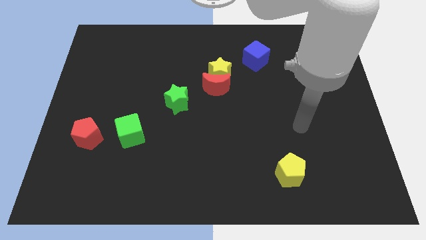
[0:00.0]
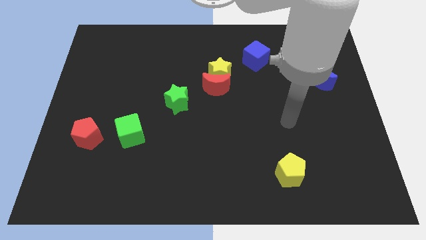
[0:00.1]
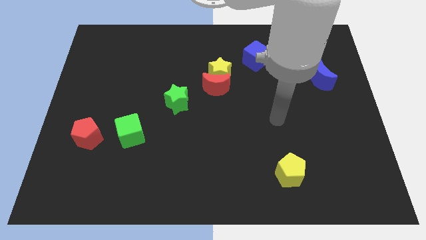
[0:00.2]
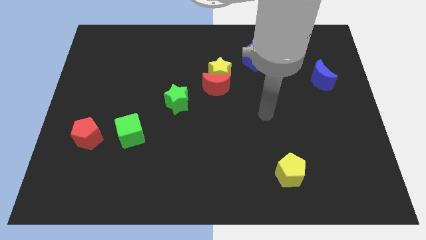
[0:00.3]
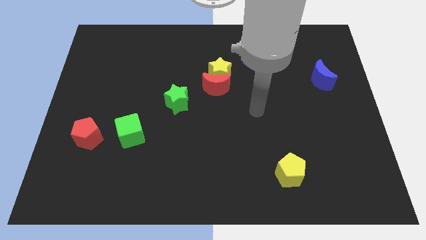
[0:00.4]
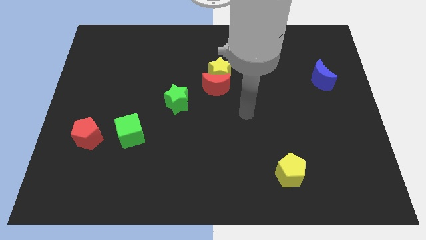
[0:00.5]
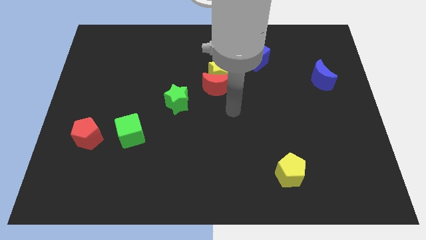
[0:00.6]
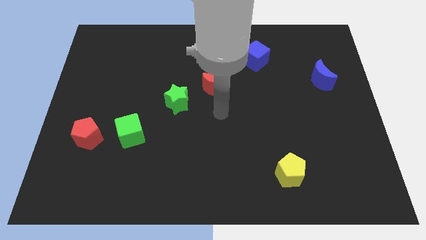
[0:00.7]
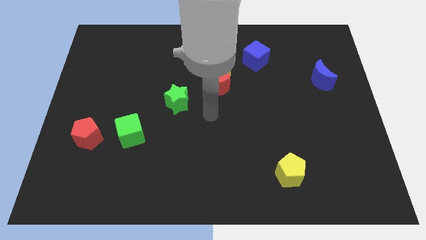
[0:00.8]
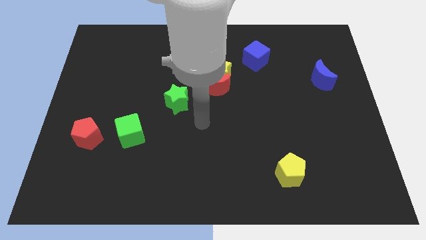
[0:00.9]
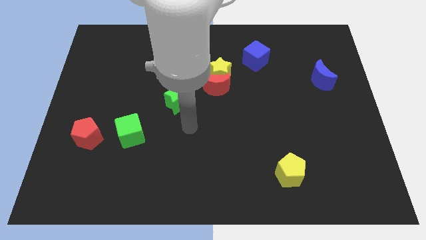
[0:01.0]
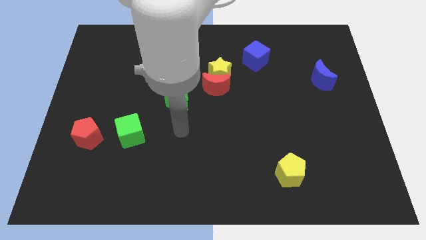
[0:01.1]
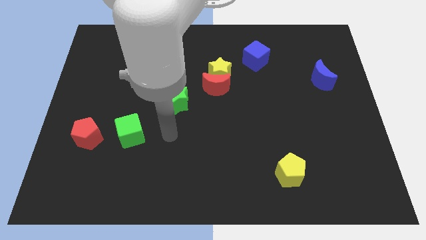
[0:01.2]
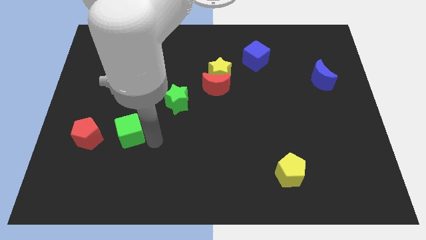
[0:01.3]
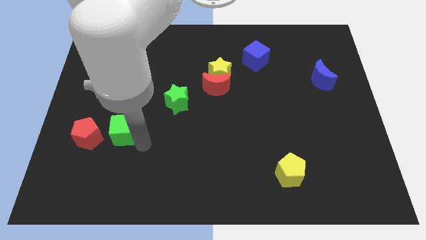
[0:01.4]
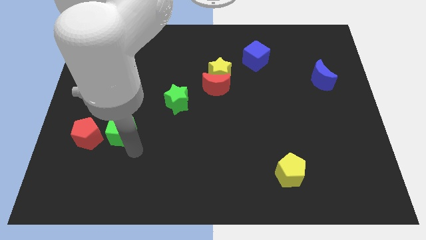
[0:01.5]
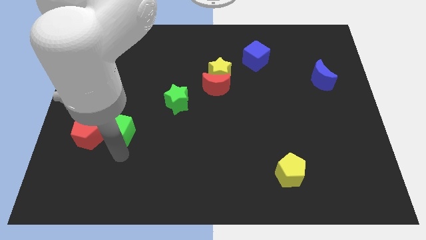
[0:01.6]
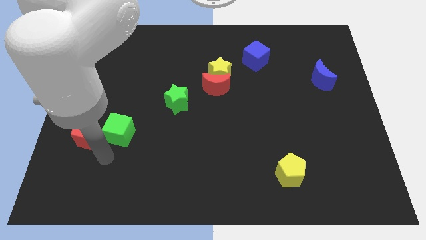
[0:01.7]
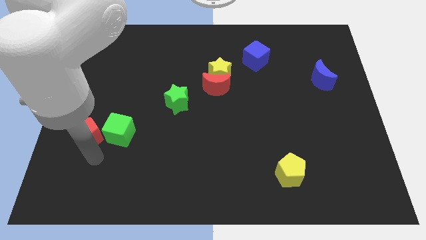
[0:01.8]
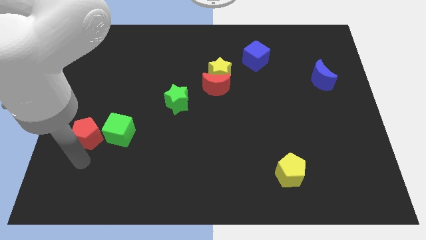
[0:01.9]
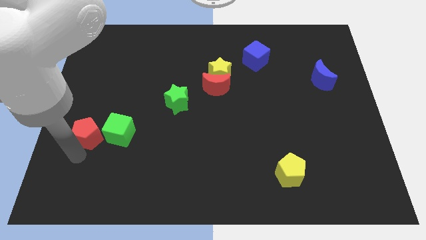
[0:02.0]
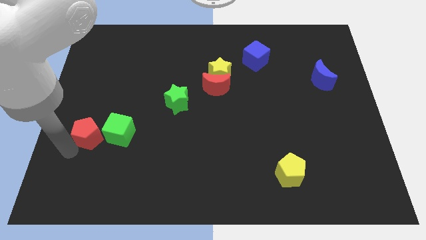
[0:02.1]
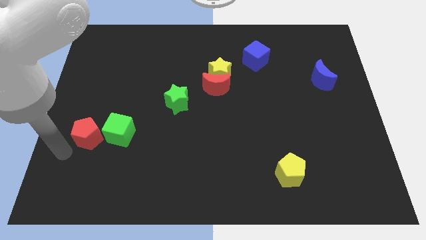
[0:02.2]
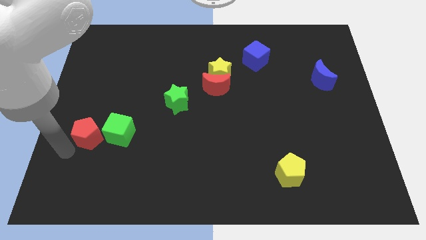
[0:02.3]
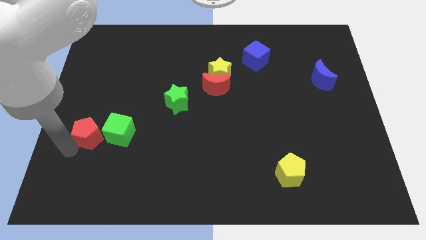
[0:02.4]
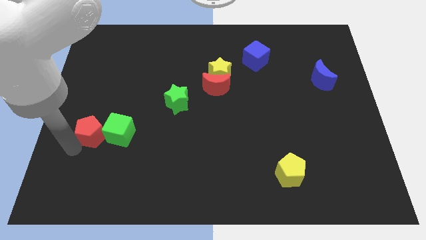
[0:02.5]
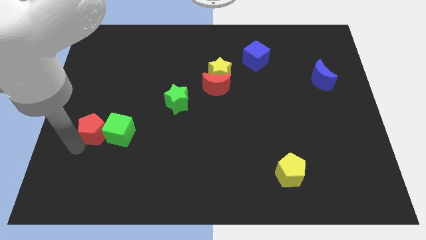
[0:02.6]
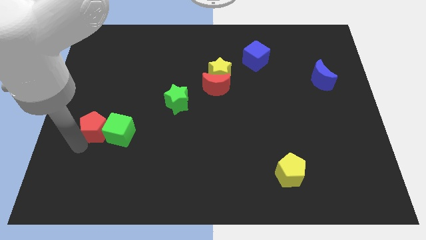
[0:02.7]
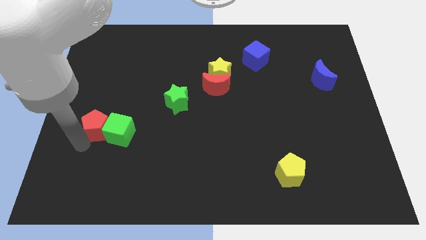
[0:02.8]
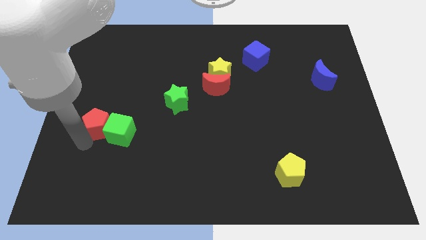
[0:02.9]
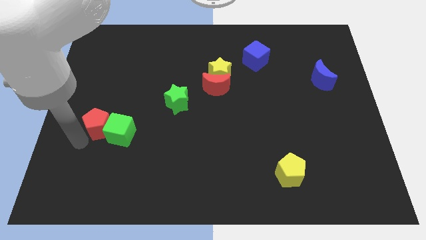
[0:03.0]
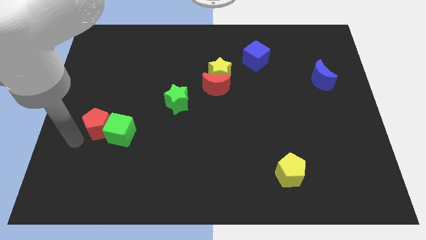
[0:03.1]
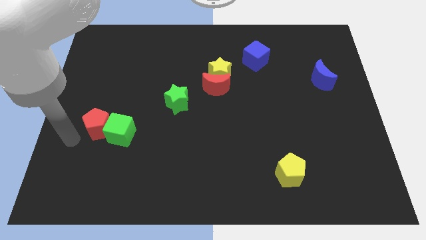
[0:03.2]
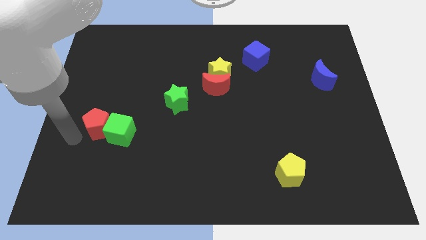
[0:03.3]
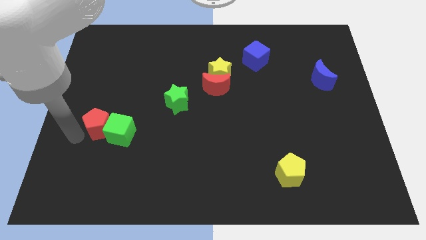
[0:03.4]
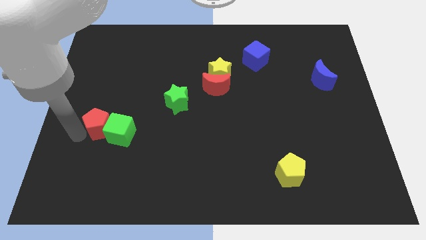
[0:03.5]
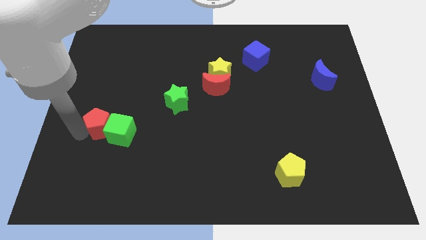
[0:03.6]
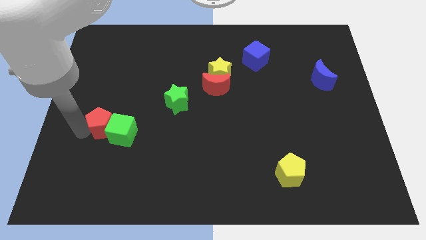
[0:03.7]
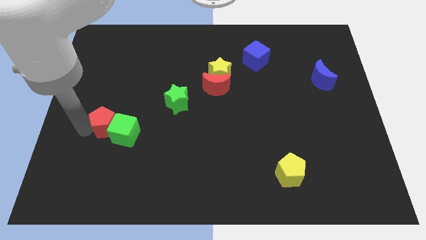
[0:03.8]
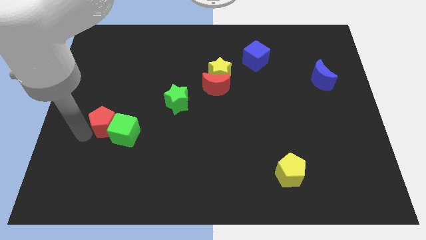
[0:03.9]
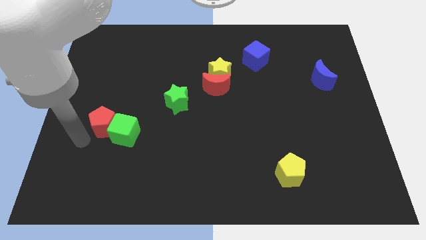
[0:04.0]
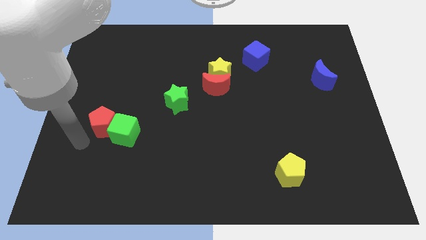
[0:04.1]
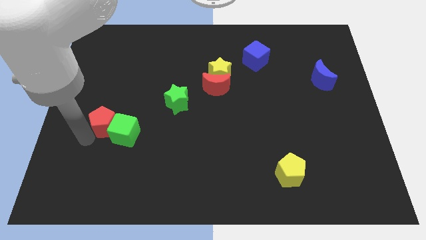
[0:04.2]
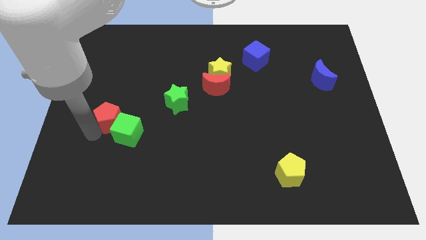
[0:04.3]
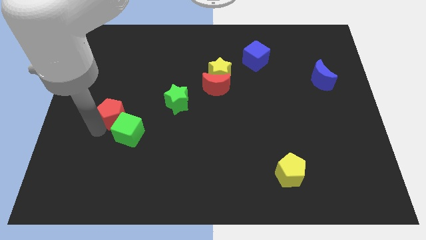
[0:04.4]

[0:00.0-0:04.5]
push the red pentagon up and then to the right a little

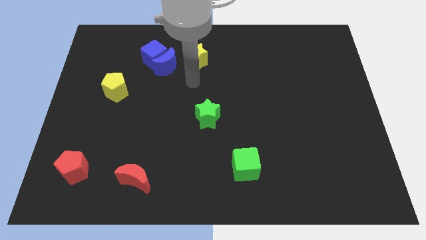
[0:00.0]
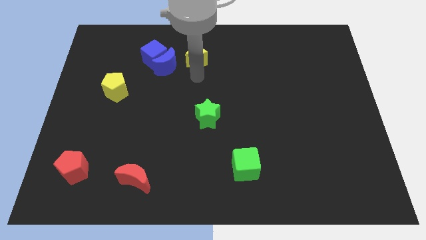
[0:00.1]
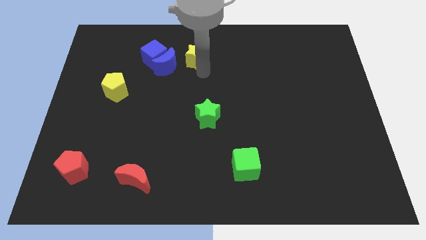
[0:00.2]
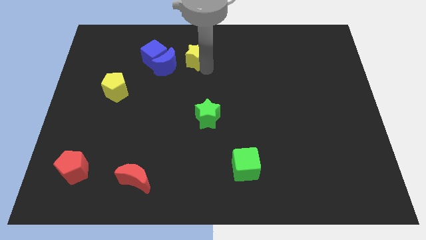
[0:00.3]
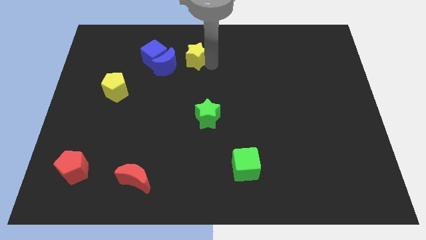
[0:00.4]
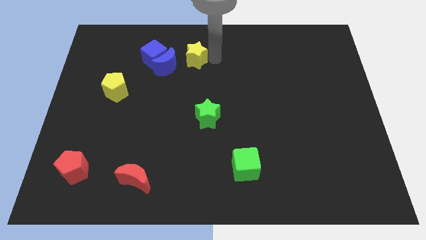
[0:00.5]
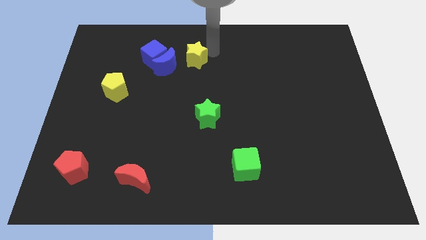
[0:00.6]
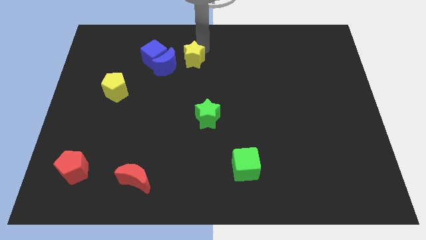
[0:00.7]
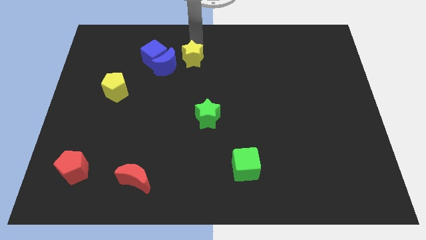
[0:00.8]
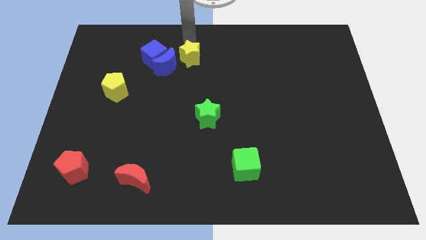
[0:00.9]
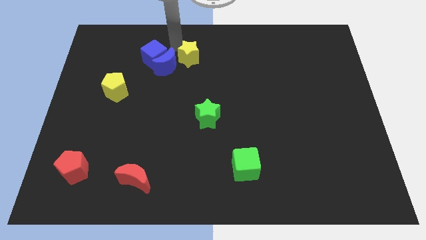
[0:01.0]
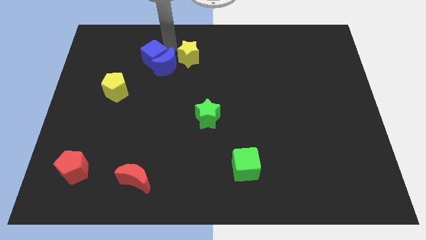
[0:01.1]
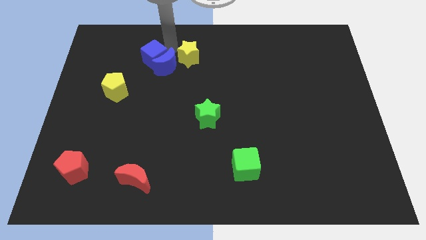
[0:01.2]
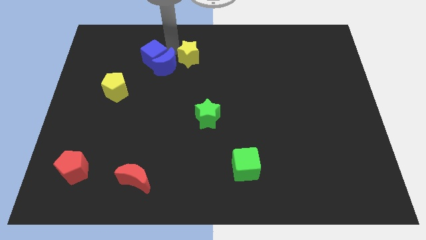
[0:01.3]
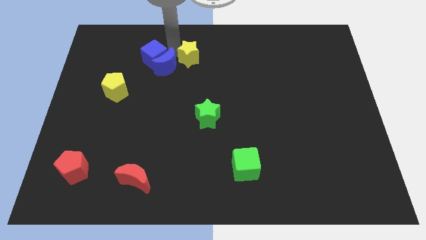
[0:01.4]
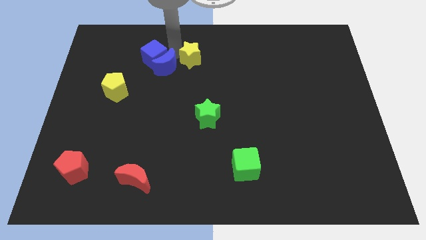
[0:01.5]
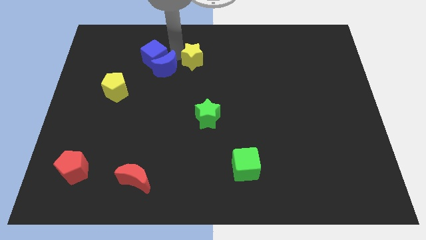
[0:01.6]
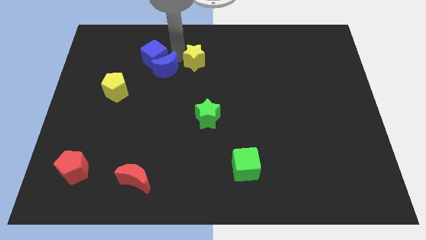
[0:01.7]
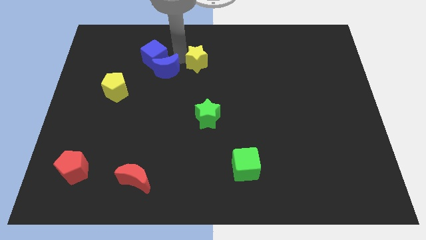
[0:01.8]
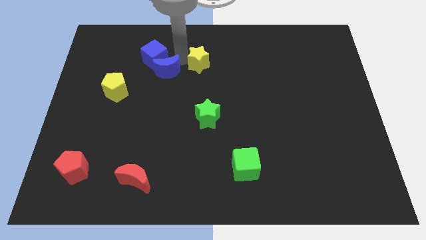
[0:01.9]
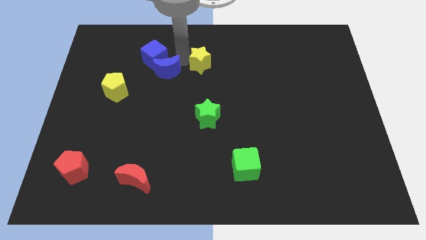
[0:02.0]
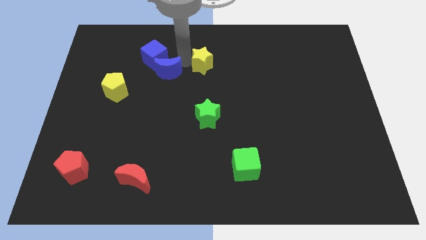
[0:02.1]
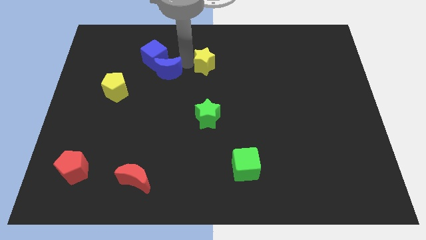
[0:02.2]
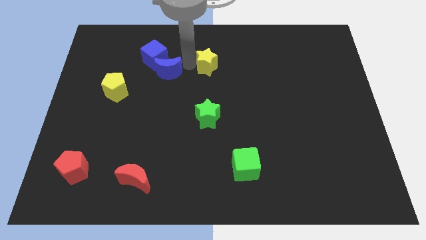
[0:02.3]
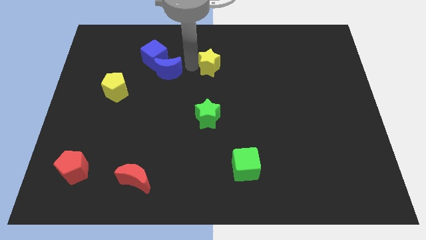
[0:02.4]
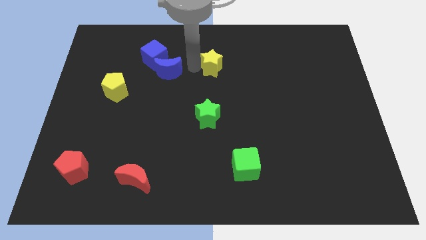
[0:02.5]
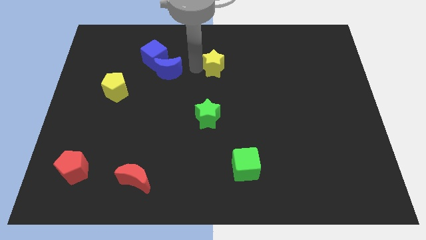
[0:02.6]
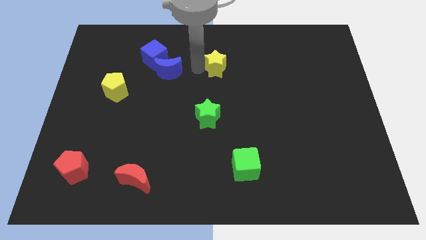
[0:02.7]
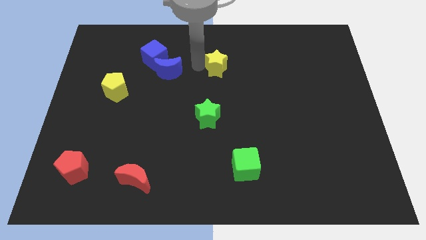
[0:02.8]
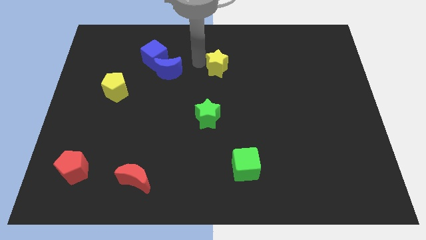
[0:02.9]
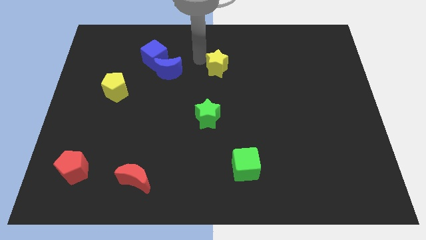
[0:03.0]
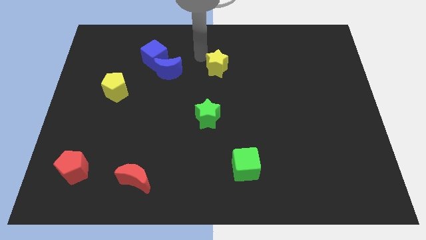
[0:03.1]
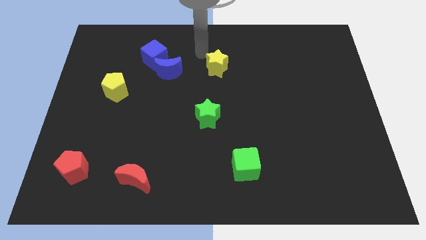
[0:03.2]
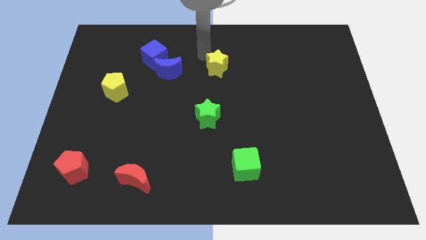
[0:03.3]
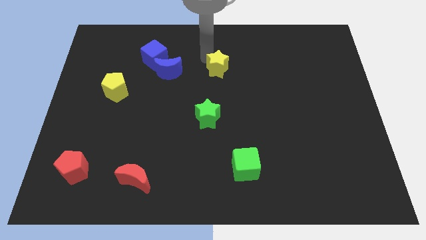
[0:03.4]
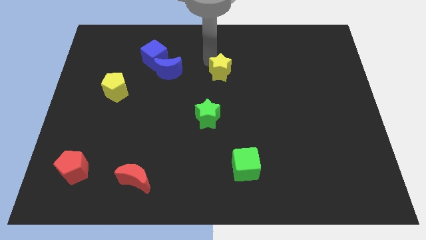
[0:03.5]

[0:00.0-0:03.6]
move the yellow star downwards and to the right slightly

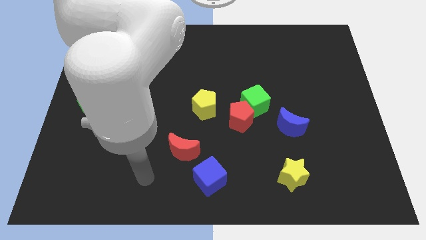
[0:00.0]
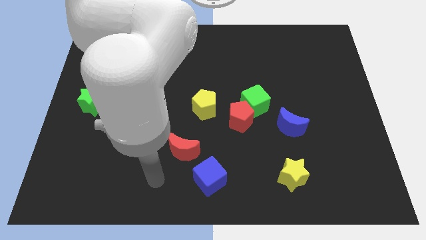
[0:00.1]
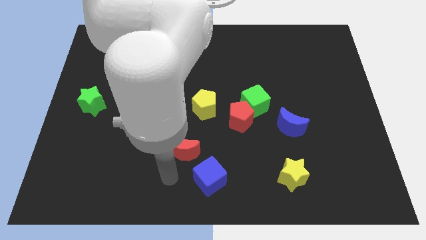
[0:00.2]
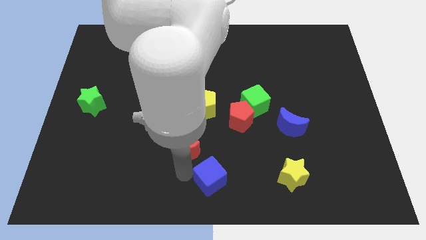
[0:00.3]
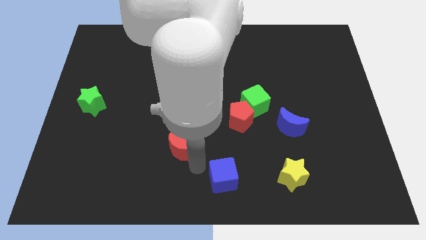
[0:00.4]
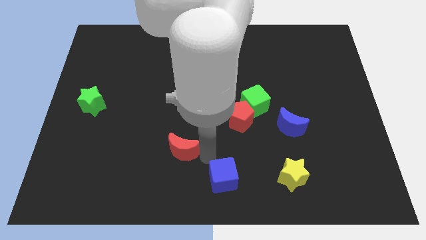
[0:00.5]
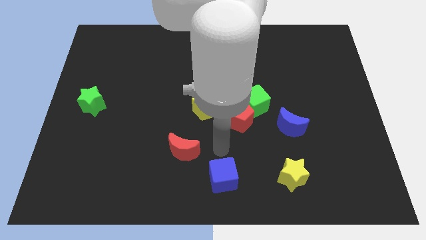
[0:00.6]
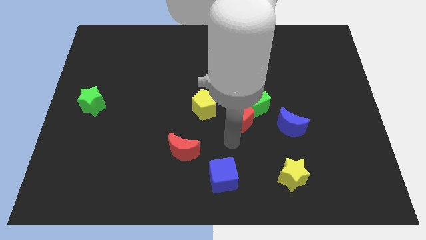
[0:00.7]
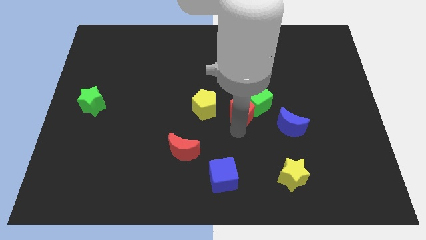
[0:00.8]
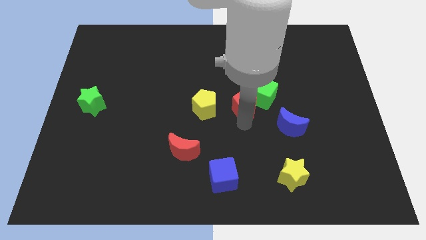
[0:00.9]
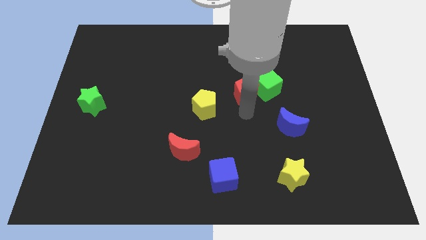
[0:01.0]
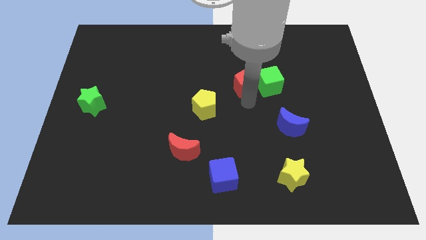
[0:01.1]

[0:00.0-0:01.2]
slightly slide the green cube upwards and to the right diagonally
